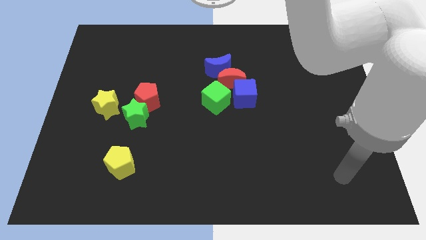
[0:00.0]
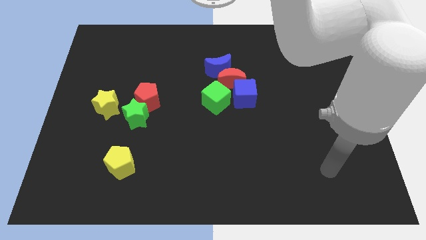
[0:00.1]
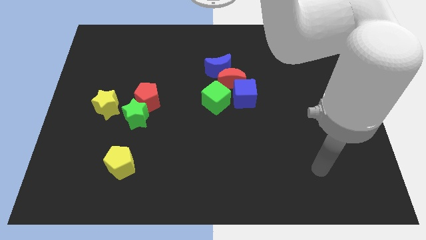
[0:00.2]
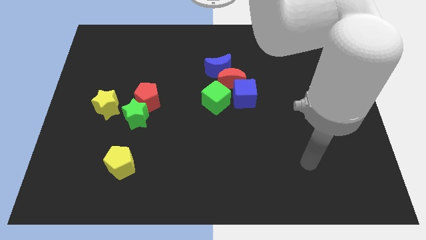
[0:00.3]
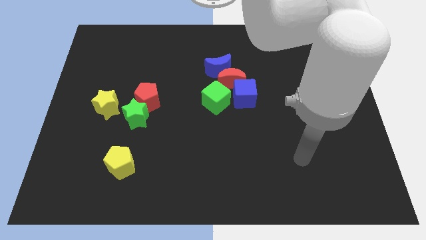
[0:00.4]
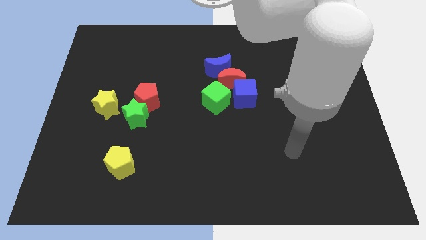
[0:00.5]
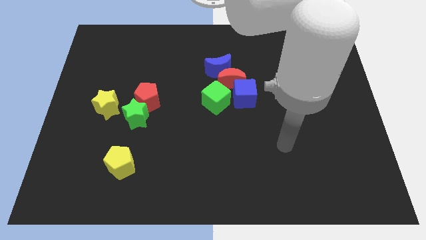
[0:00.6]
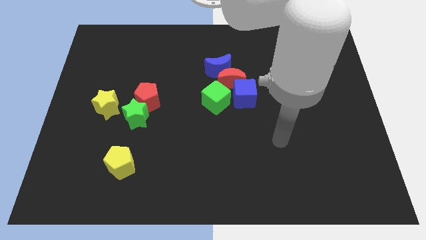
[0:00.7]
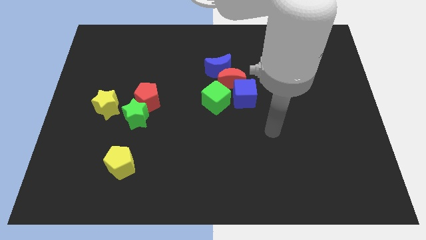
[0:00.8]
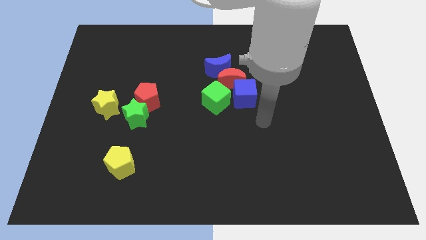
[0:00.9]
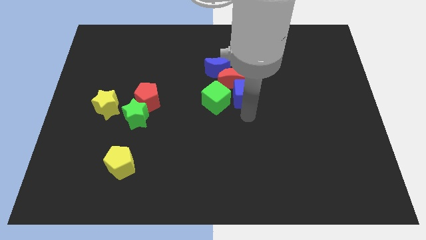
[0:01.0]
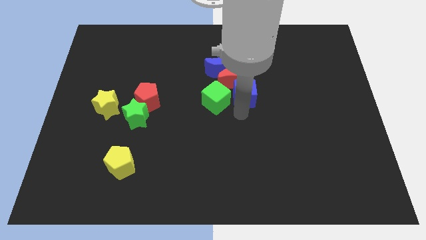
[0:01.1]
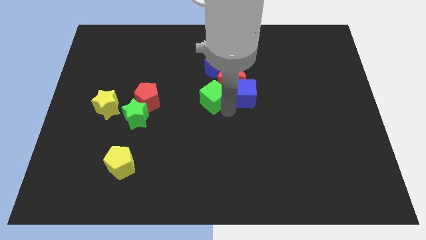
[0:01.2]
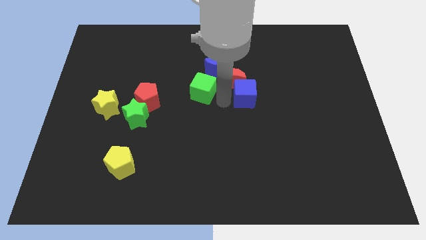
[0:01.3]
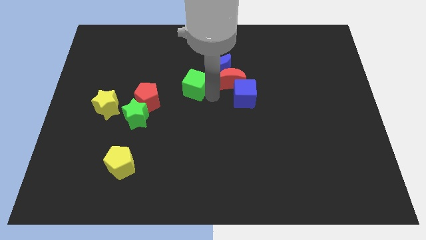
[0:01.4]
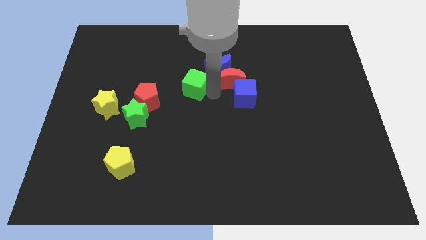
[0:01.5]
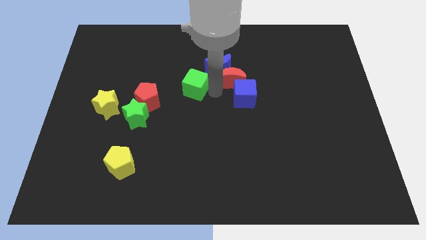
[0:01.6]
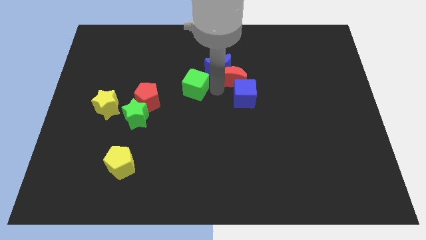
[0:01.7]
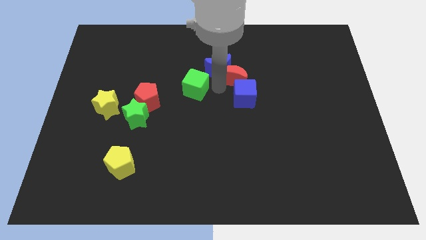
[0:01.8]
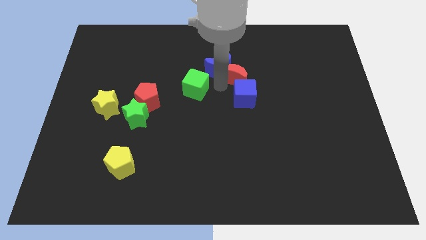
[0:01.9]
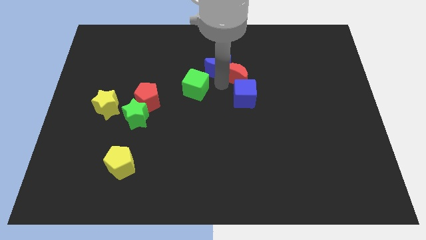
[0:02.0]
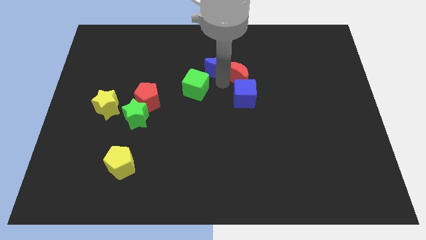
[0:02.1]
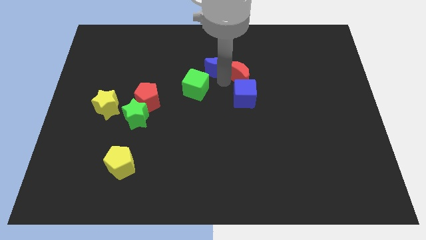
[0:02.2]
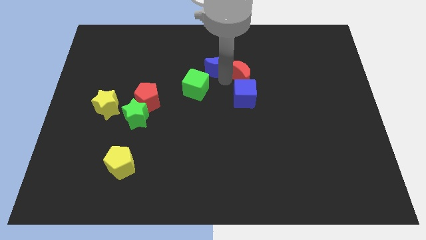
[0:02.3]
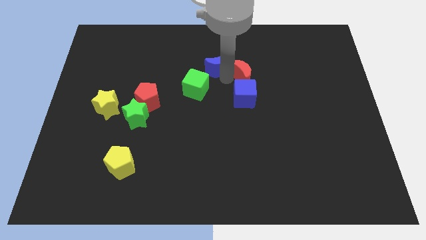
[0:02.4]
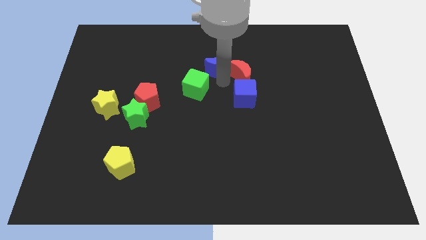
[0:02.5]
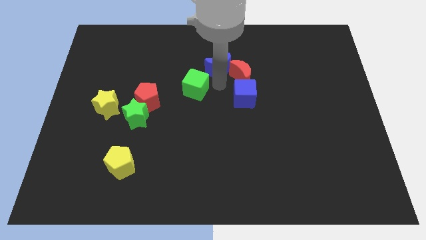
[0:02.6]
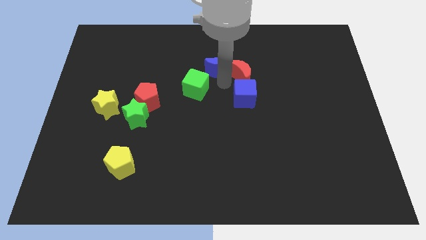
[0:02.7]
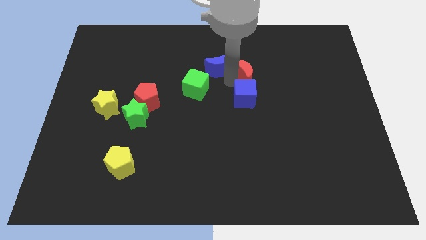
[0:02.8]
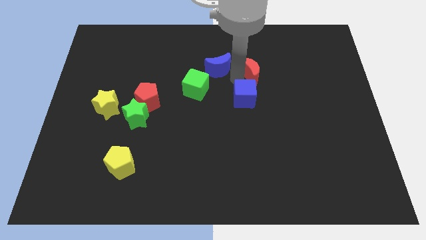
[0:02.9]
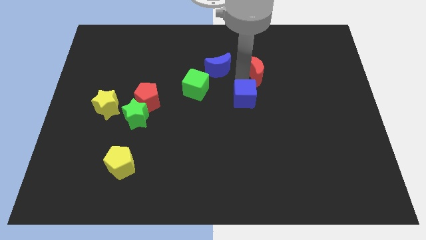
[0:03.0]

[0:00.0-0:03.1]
move the red moon away from the blue moon, blue cube, and green cube

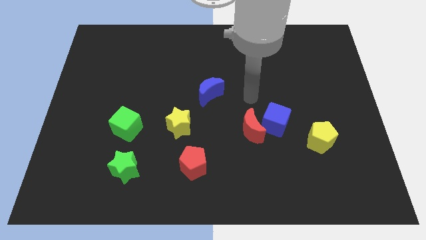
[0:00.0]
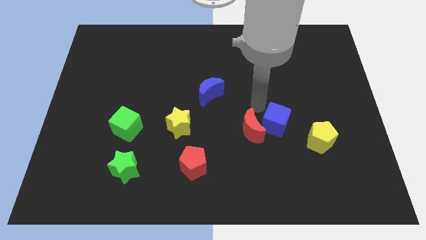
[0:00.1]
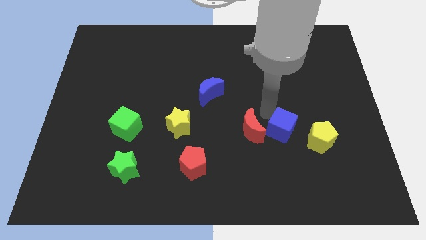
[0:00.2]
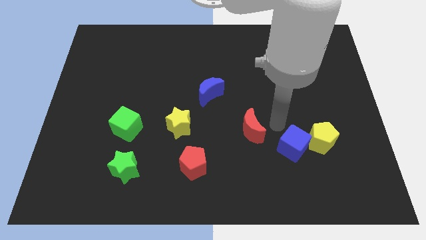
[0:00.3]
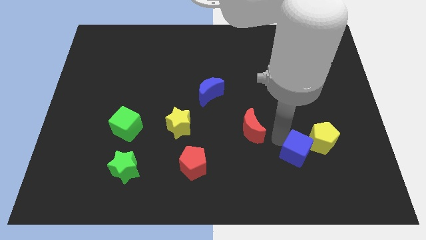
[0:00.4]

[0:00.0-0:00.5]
move the red moon away from the blue cube

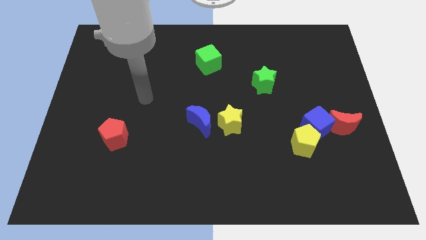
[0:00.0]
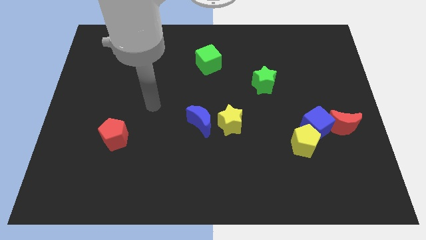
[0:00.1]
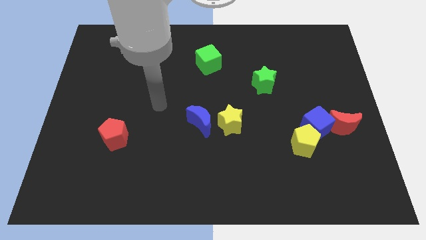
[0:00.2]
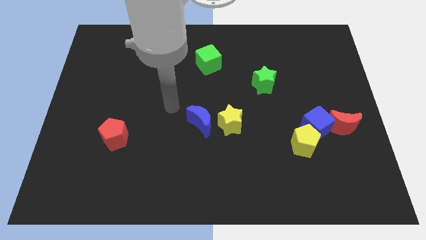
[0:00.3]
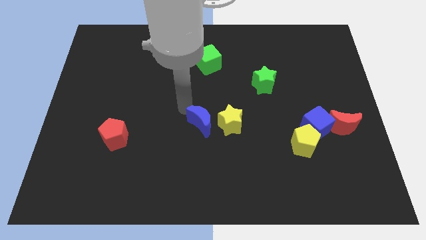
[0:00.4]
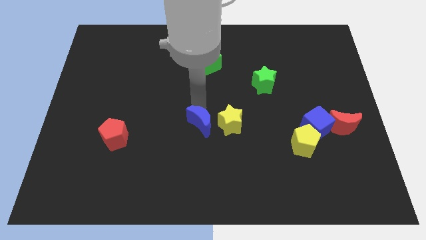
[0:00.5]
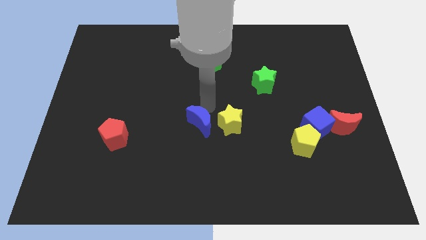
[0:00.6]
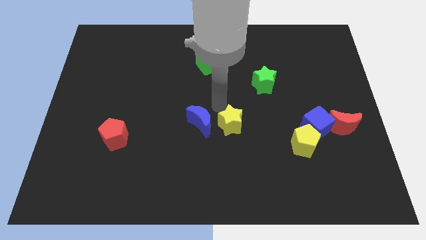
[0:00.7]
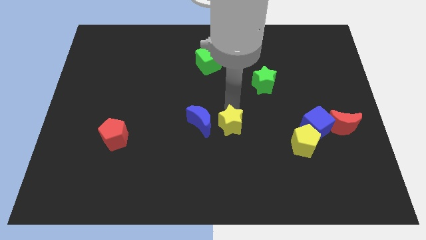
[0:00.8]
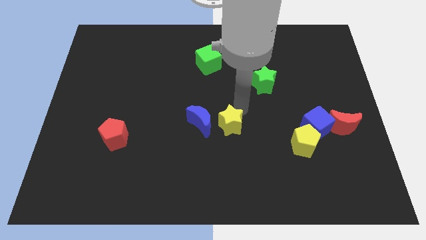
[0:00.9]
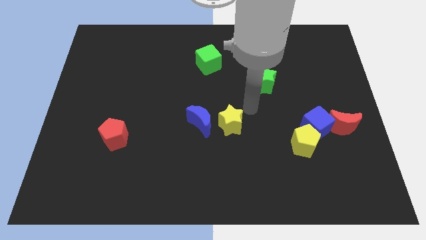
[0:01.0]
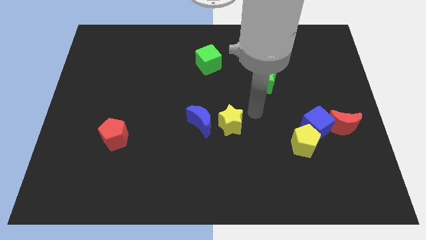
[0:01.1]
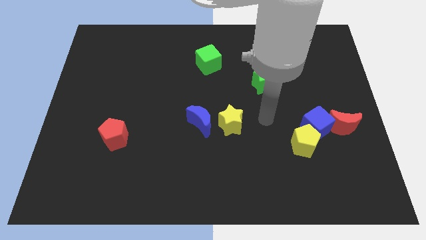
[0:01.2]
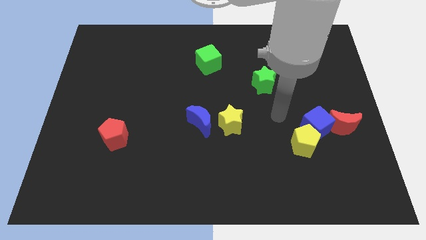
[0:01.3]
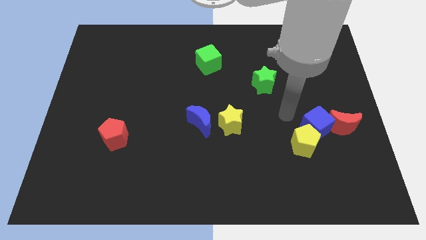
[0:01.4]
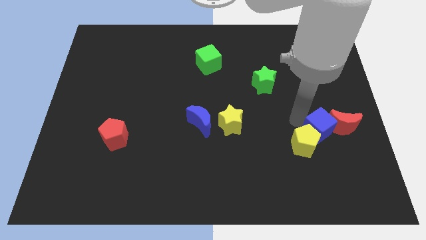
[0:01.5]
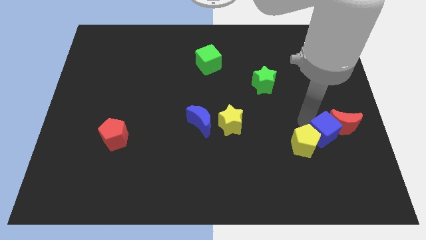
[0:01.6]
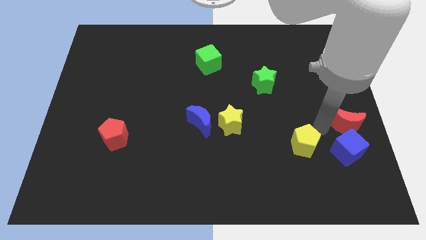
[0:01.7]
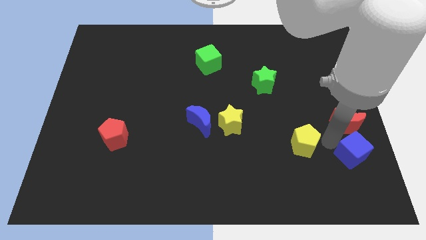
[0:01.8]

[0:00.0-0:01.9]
separate the yellow pentagon from the blue cube

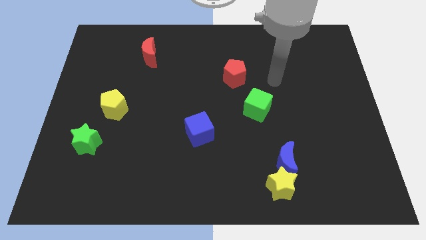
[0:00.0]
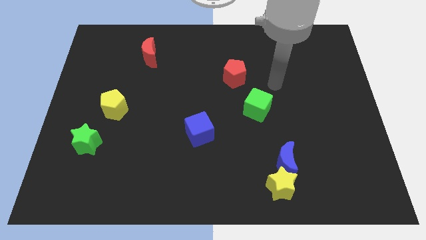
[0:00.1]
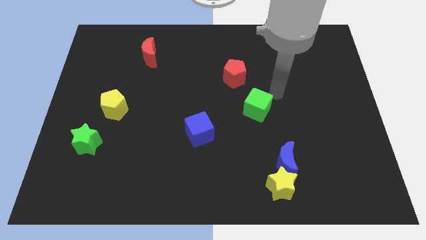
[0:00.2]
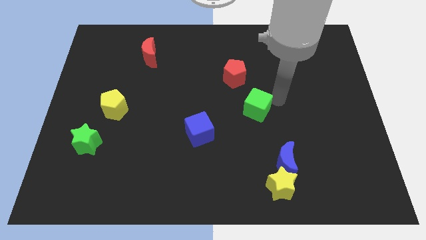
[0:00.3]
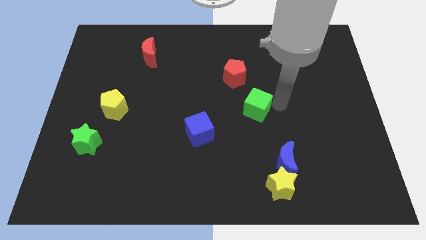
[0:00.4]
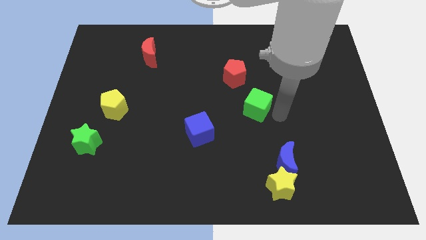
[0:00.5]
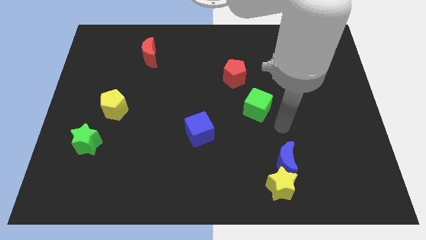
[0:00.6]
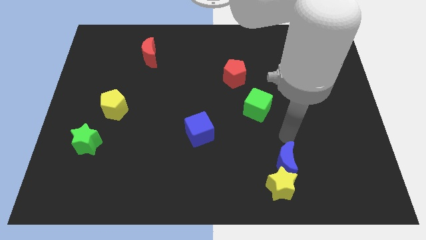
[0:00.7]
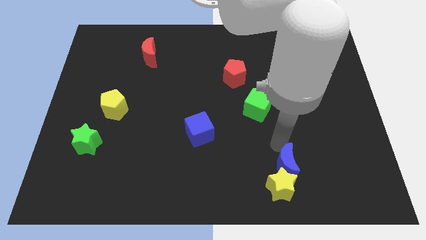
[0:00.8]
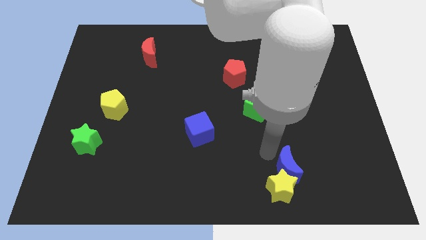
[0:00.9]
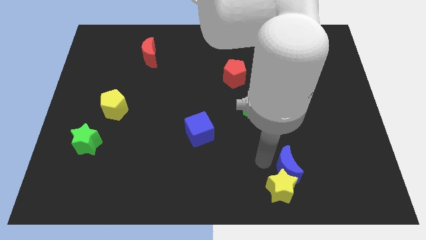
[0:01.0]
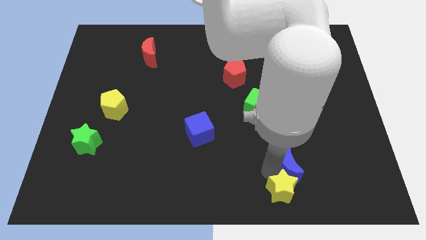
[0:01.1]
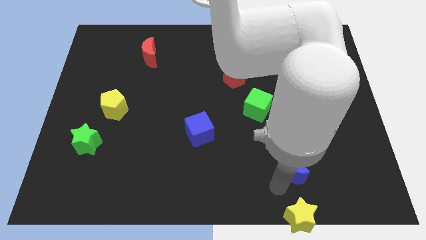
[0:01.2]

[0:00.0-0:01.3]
separate the blue moon from the yellow star

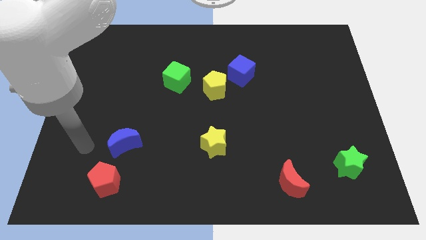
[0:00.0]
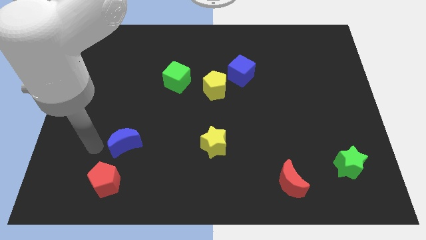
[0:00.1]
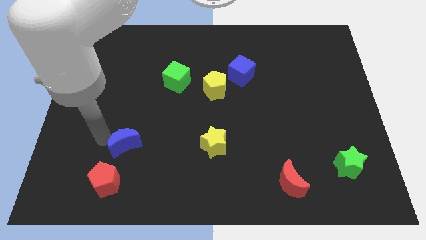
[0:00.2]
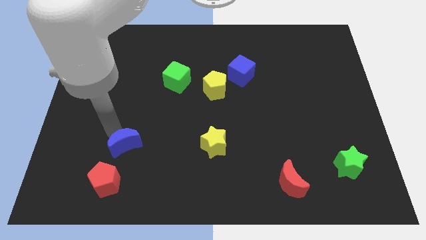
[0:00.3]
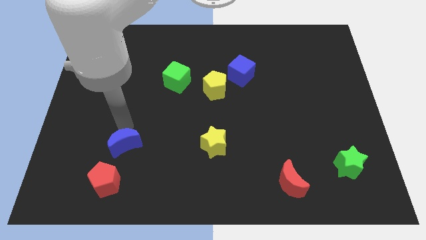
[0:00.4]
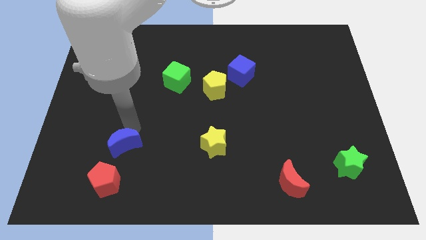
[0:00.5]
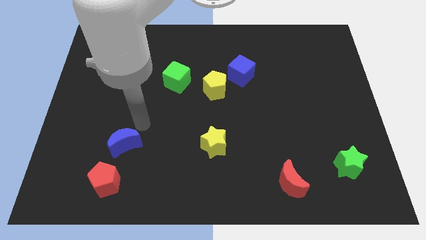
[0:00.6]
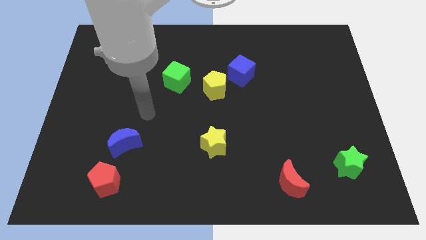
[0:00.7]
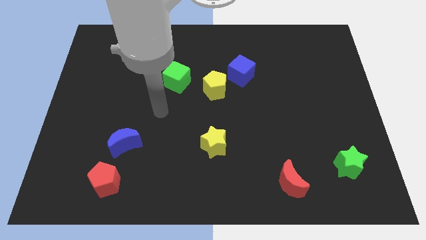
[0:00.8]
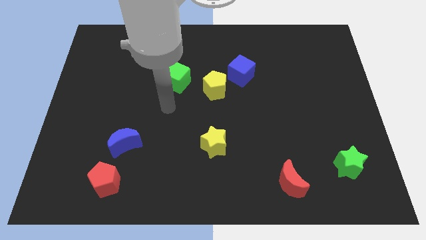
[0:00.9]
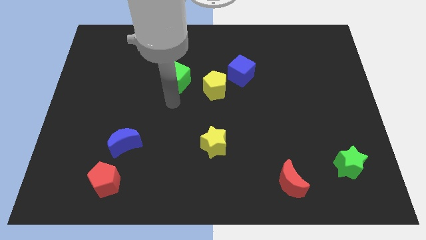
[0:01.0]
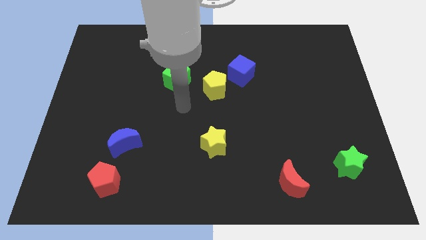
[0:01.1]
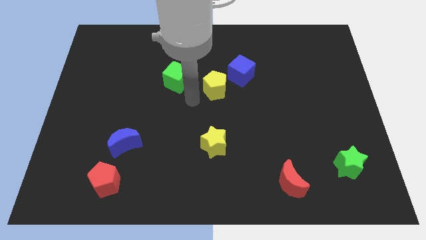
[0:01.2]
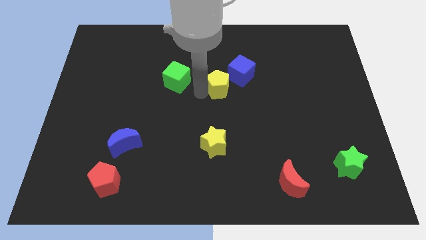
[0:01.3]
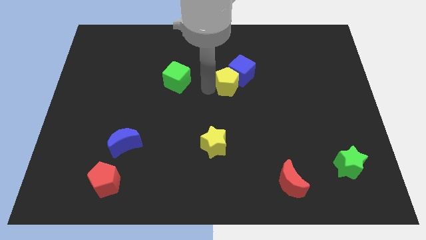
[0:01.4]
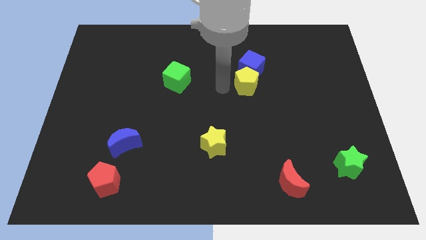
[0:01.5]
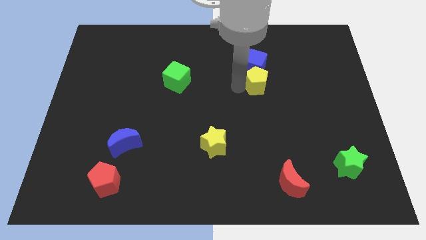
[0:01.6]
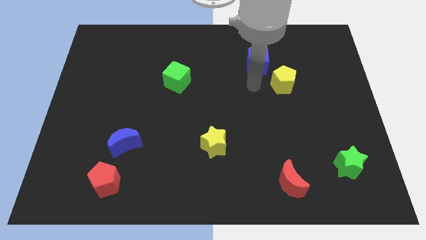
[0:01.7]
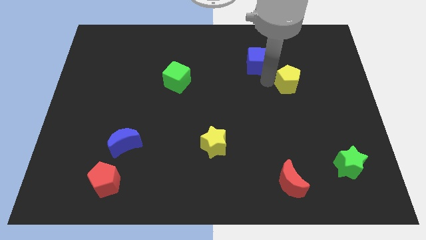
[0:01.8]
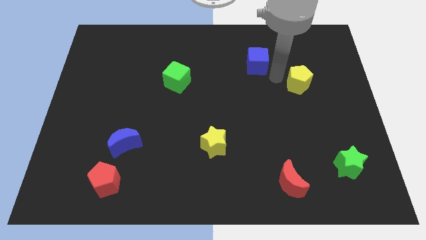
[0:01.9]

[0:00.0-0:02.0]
separate the blue cube from the yellow pentagon

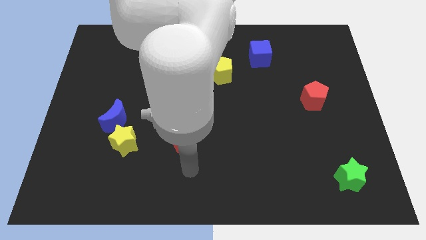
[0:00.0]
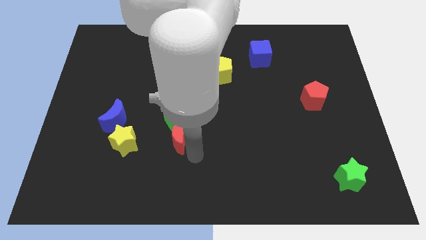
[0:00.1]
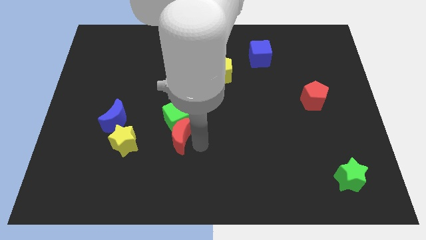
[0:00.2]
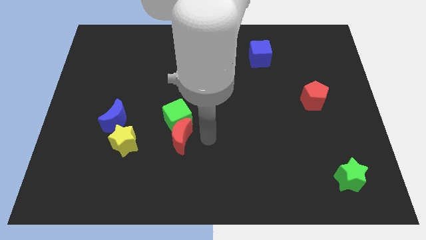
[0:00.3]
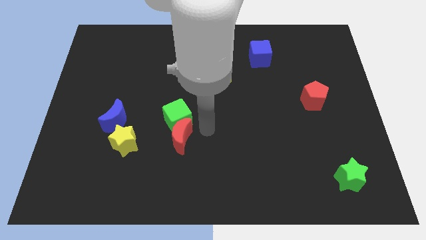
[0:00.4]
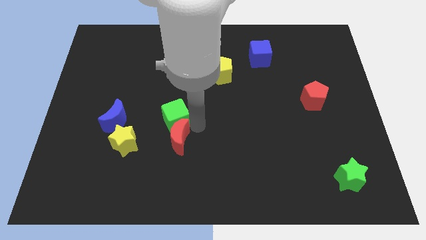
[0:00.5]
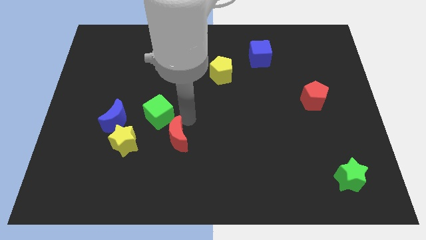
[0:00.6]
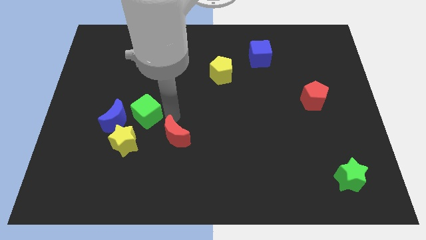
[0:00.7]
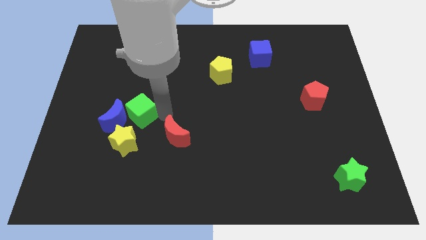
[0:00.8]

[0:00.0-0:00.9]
move the red moon away from the green cube
